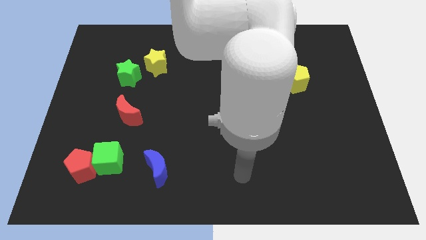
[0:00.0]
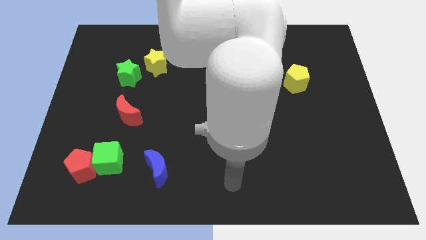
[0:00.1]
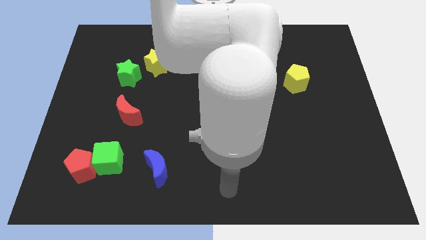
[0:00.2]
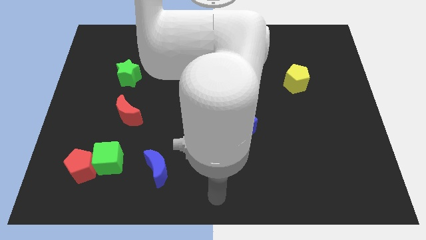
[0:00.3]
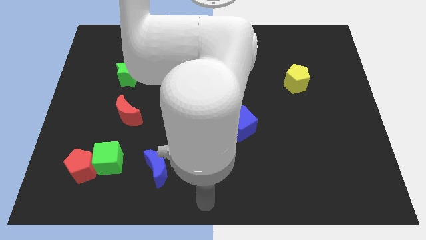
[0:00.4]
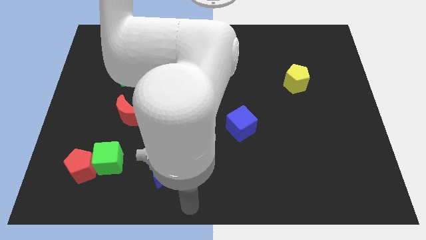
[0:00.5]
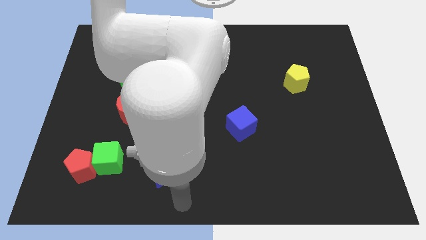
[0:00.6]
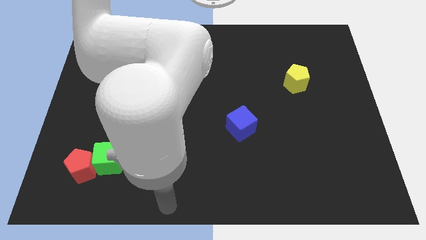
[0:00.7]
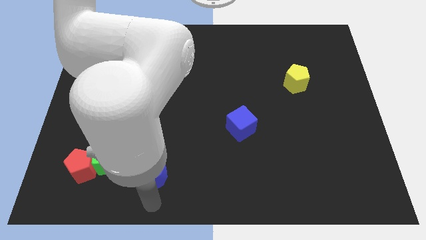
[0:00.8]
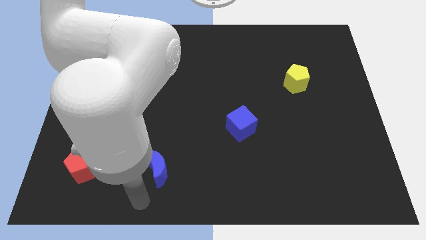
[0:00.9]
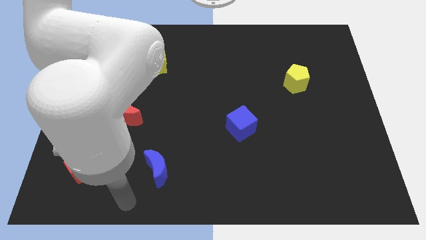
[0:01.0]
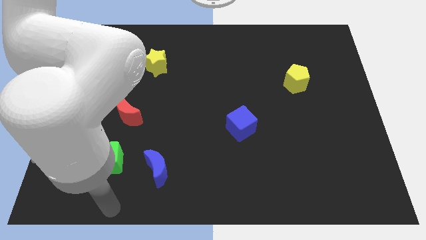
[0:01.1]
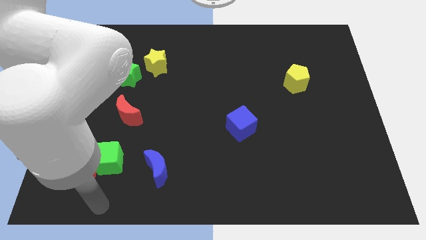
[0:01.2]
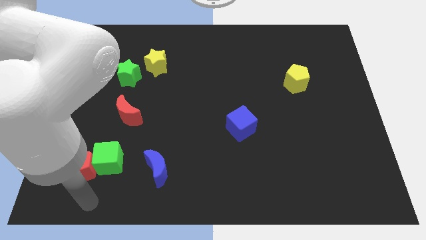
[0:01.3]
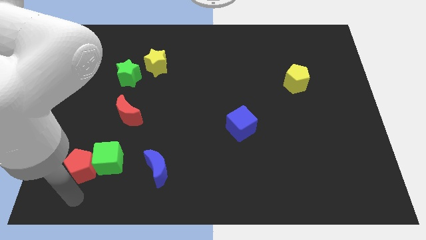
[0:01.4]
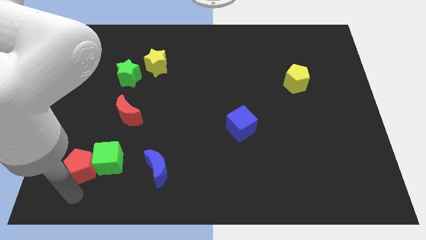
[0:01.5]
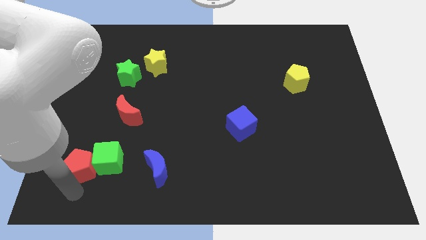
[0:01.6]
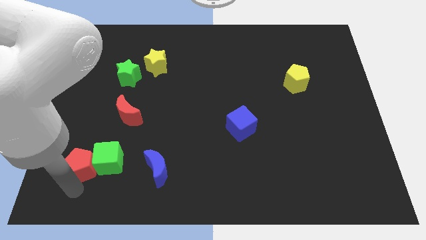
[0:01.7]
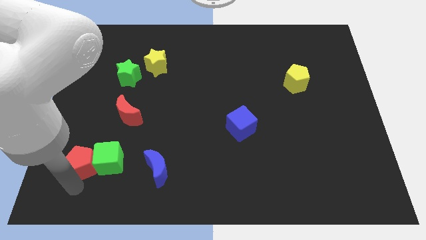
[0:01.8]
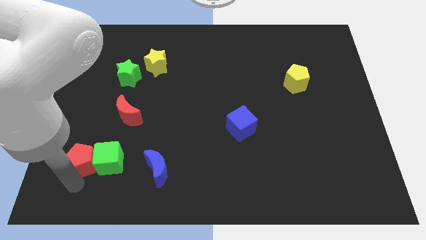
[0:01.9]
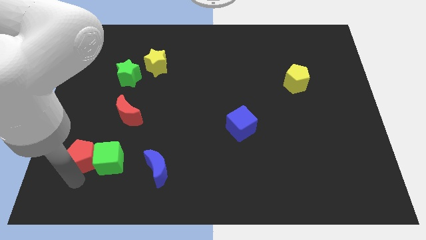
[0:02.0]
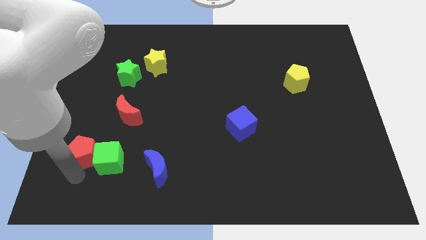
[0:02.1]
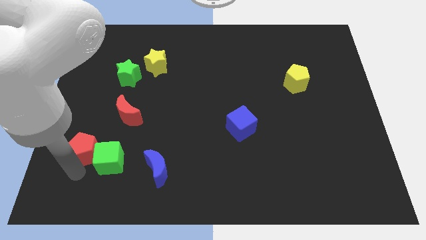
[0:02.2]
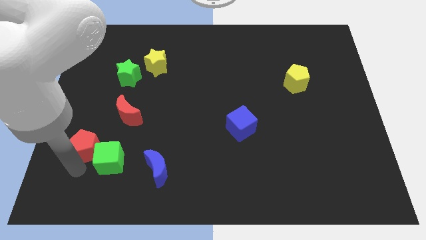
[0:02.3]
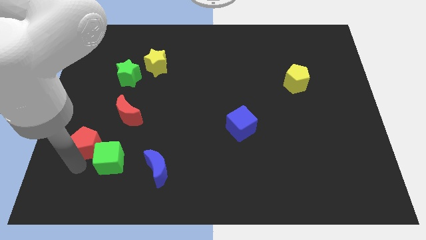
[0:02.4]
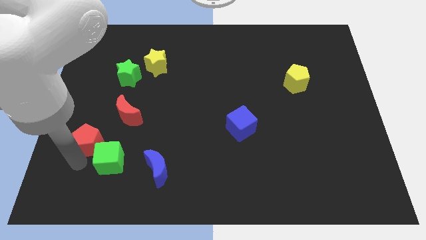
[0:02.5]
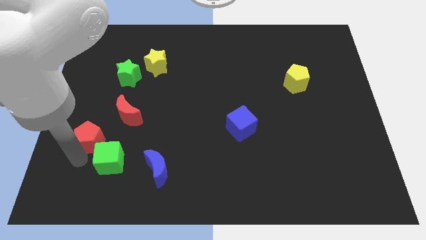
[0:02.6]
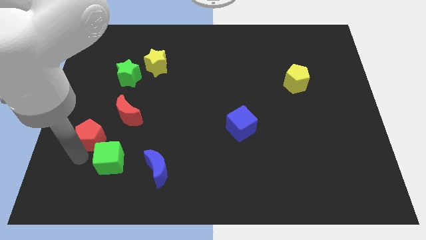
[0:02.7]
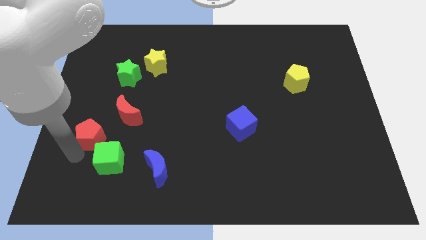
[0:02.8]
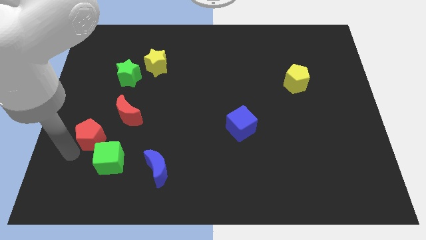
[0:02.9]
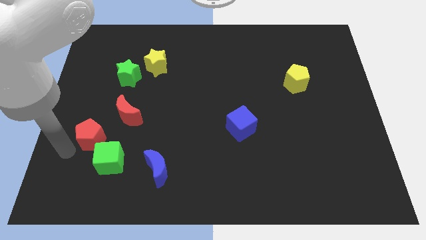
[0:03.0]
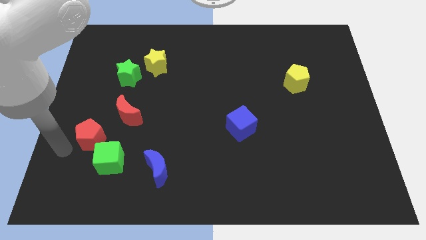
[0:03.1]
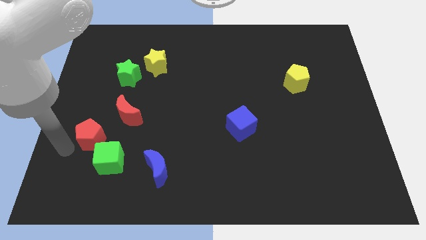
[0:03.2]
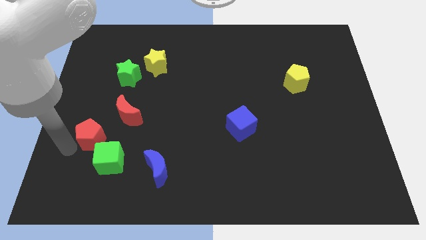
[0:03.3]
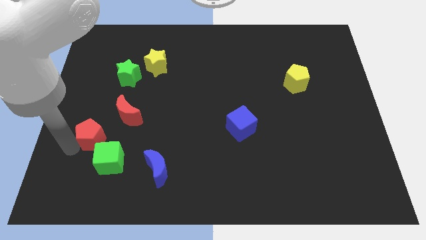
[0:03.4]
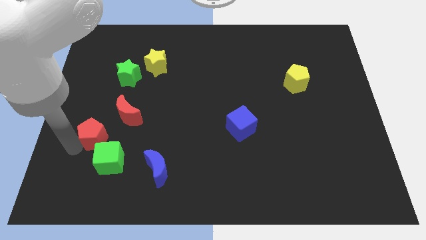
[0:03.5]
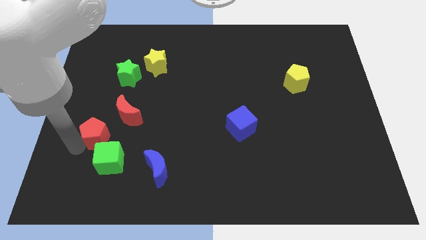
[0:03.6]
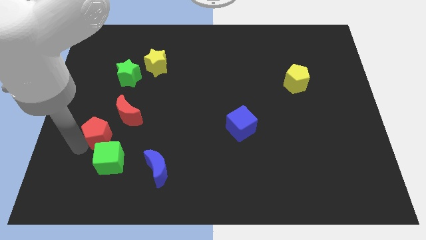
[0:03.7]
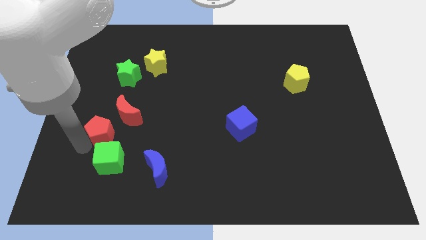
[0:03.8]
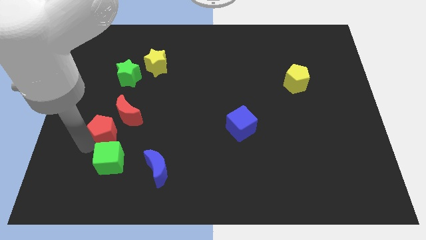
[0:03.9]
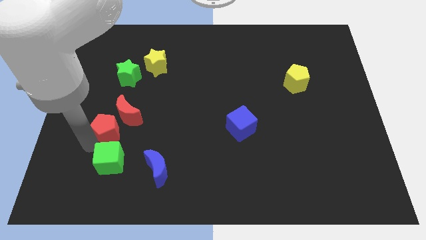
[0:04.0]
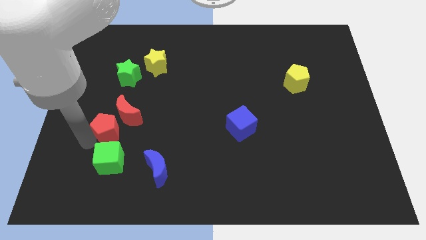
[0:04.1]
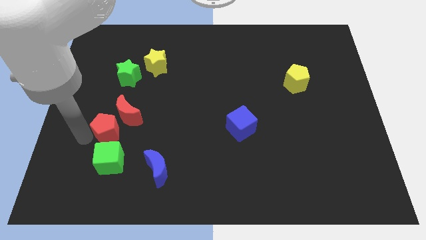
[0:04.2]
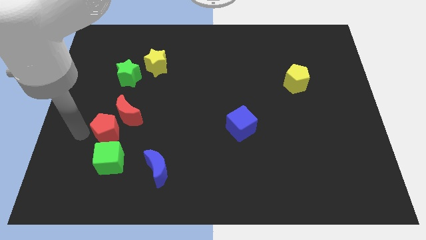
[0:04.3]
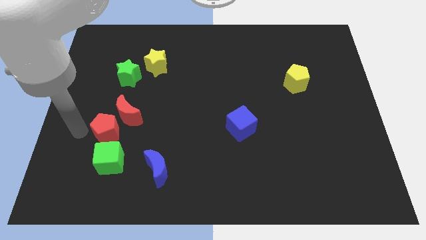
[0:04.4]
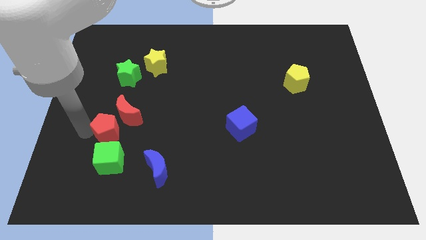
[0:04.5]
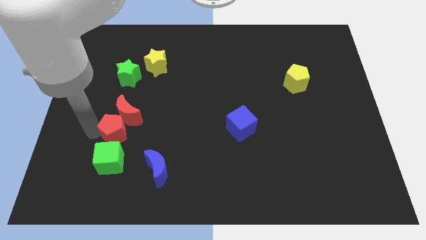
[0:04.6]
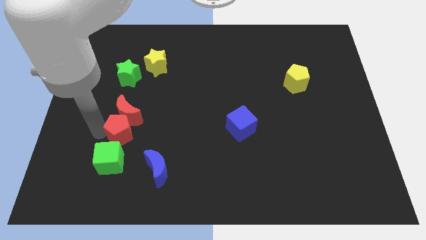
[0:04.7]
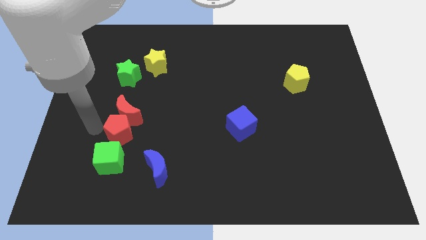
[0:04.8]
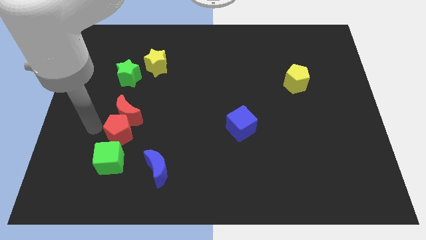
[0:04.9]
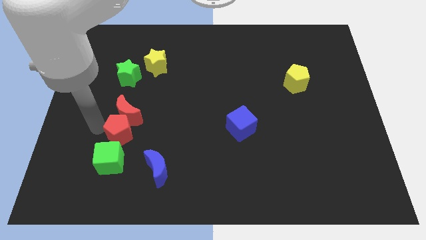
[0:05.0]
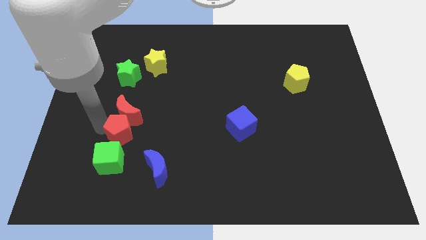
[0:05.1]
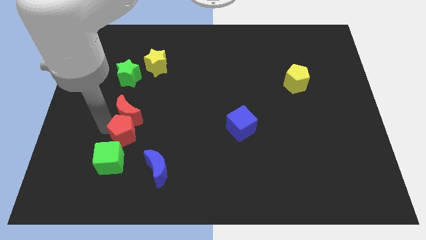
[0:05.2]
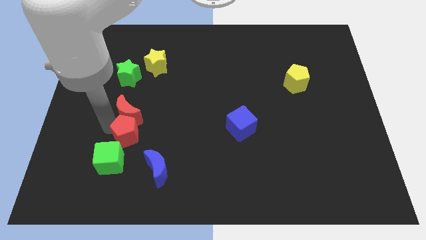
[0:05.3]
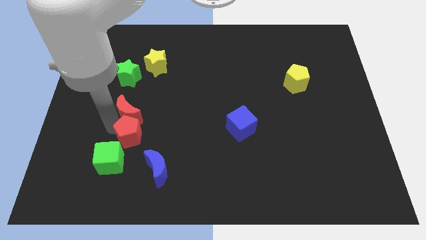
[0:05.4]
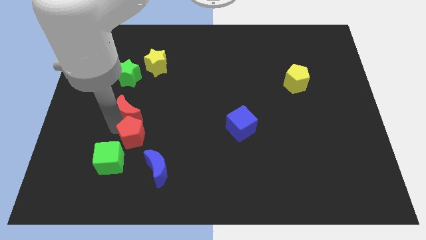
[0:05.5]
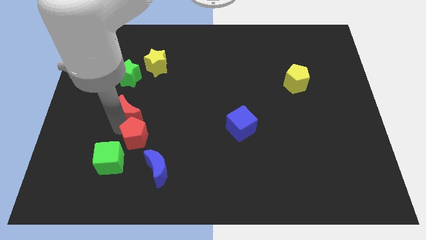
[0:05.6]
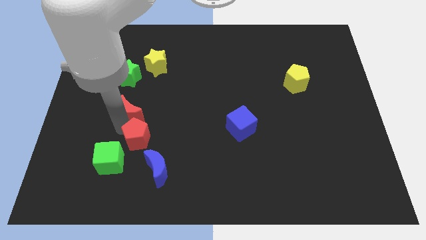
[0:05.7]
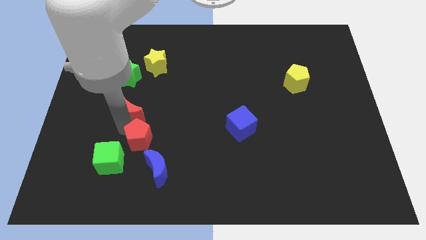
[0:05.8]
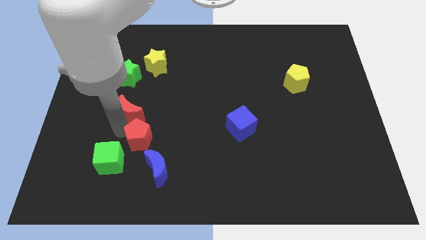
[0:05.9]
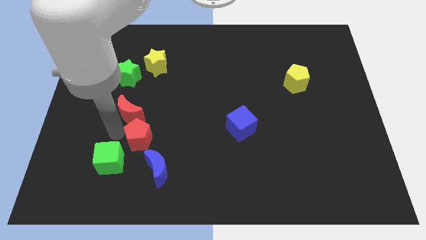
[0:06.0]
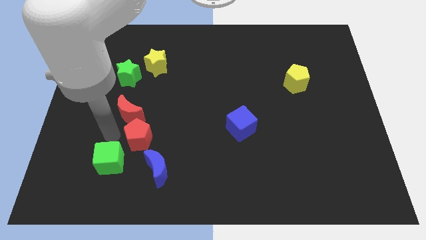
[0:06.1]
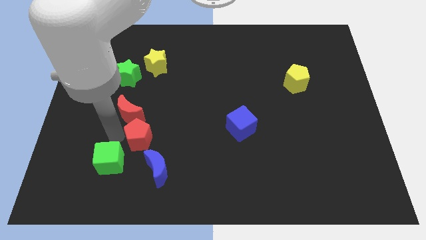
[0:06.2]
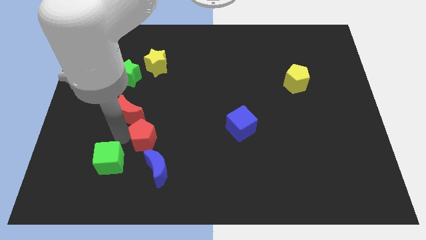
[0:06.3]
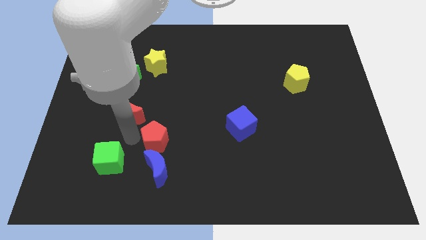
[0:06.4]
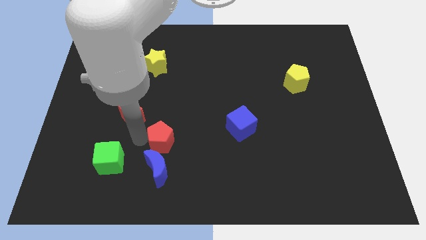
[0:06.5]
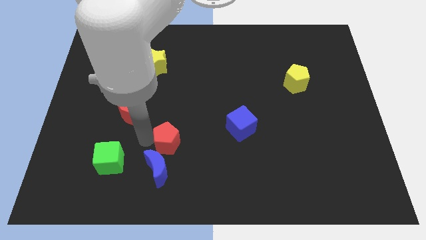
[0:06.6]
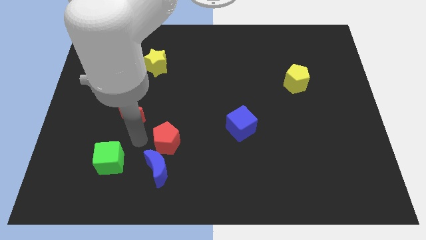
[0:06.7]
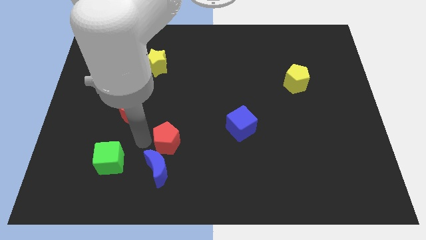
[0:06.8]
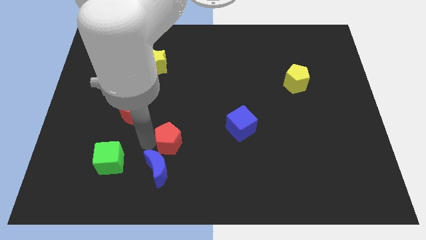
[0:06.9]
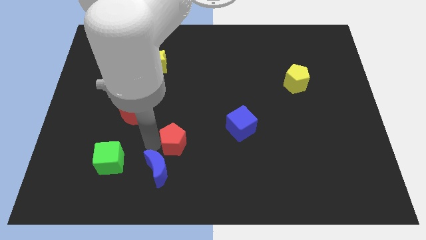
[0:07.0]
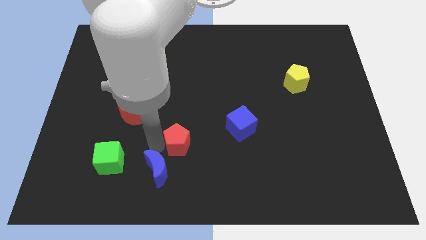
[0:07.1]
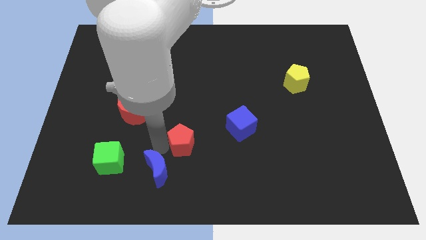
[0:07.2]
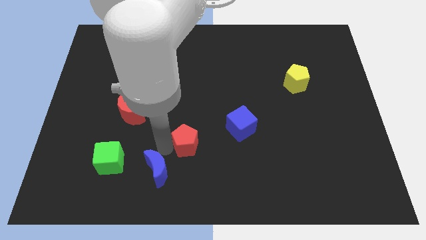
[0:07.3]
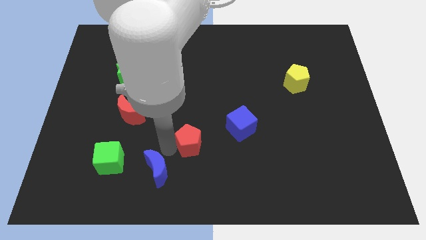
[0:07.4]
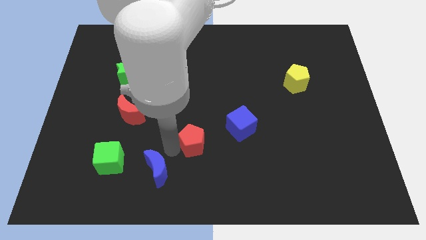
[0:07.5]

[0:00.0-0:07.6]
slide the red pentagon to the bottom left side of the blue cube
